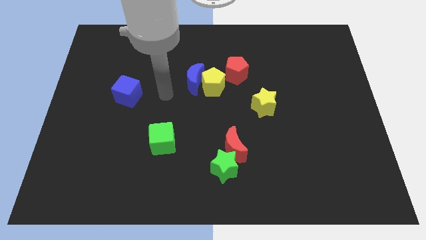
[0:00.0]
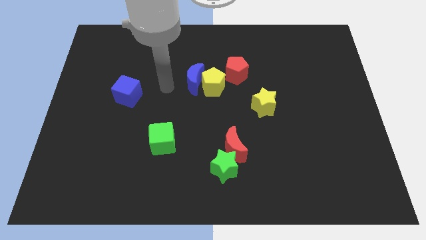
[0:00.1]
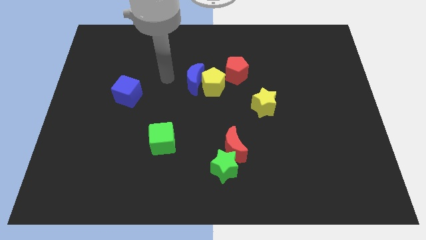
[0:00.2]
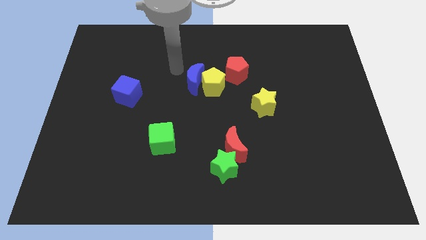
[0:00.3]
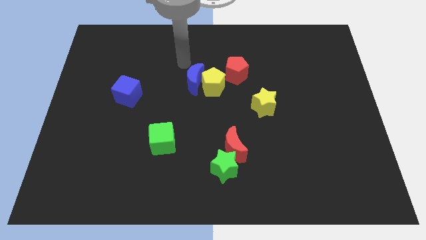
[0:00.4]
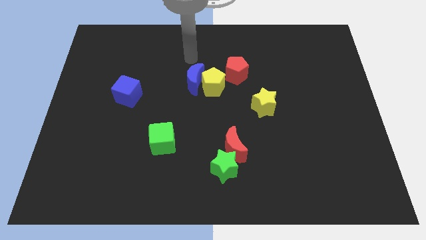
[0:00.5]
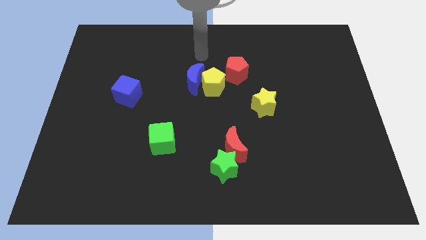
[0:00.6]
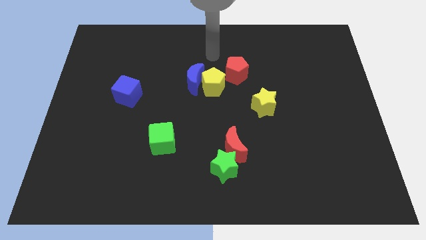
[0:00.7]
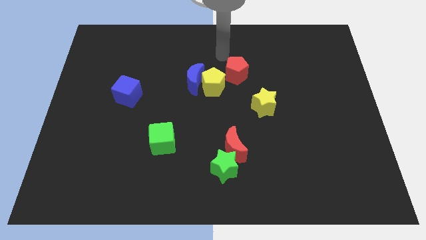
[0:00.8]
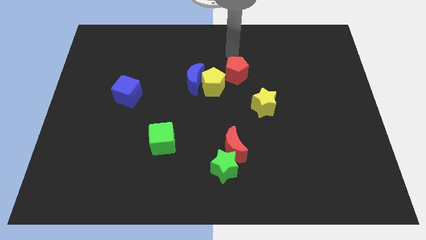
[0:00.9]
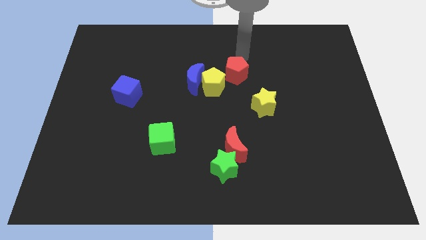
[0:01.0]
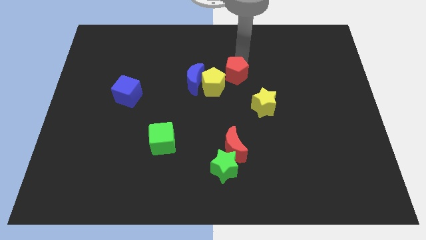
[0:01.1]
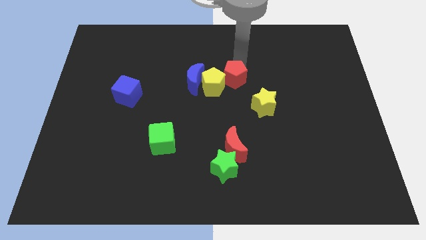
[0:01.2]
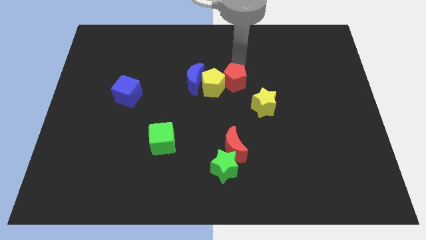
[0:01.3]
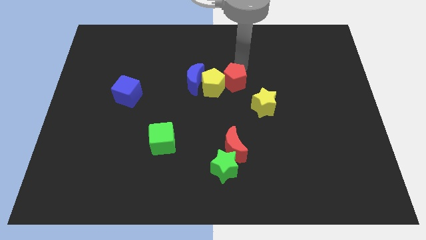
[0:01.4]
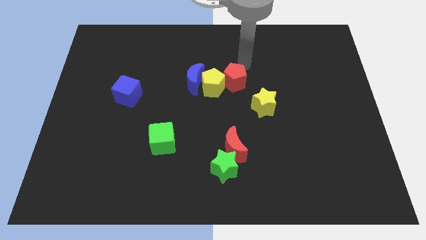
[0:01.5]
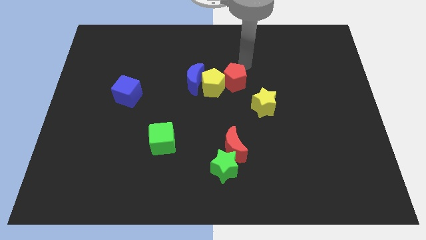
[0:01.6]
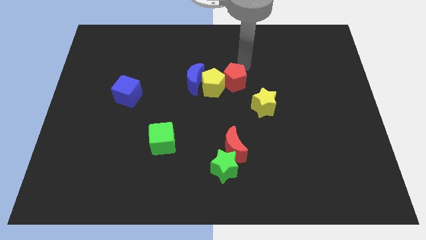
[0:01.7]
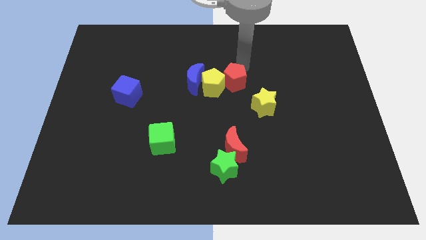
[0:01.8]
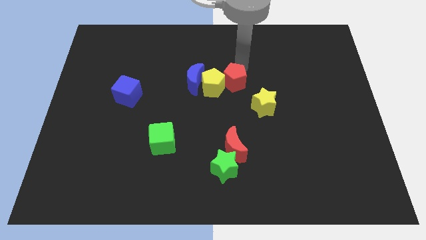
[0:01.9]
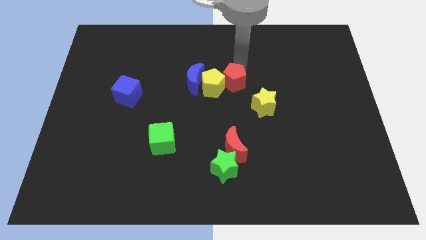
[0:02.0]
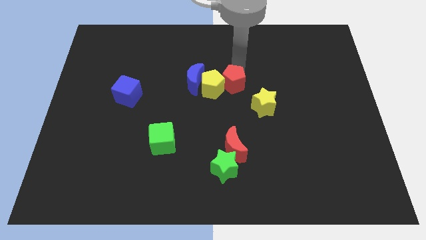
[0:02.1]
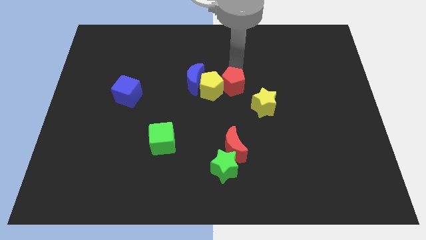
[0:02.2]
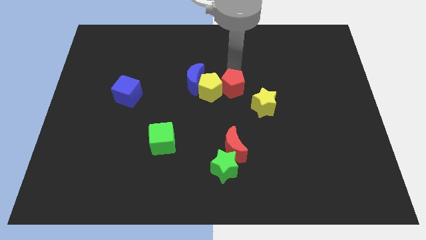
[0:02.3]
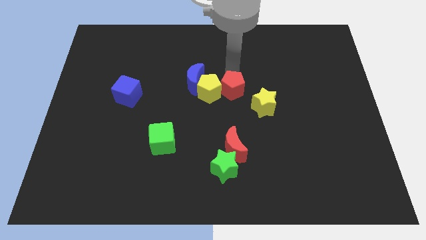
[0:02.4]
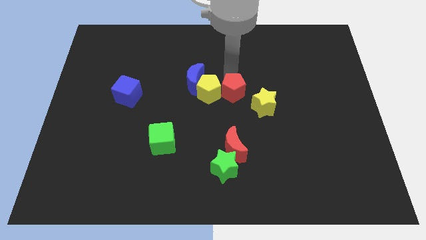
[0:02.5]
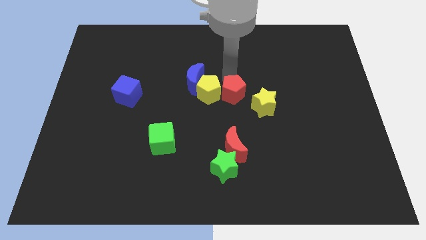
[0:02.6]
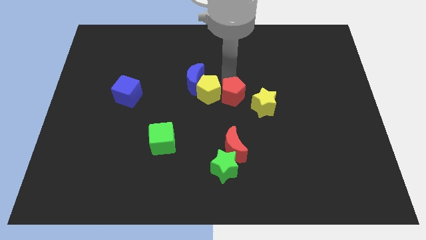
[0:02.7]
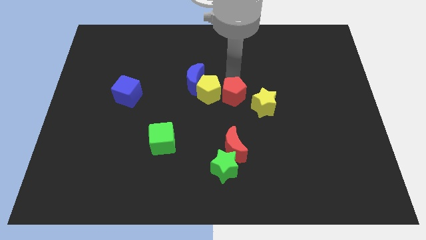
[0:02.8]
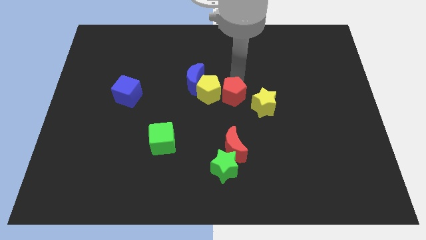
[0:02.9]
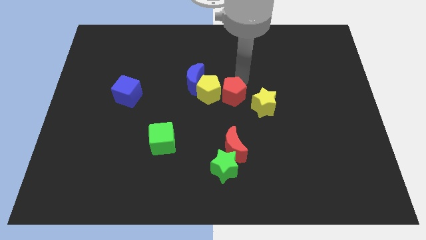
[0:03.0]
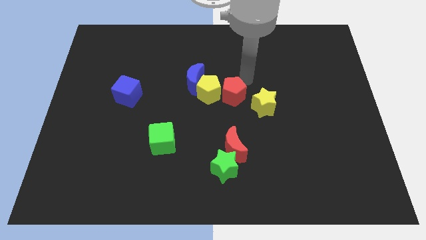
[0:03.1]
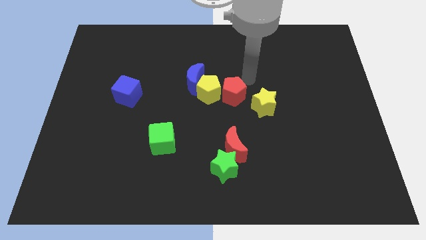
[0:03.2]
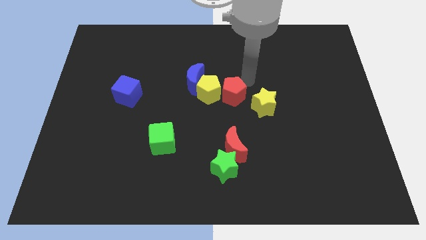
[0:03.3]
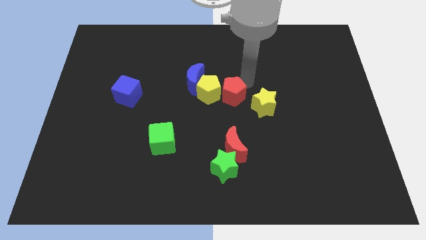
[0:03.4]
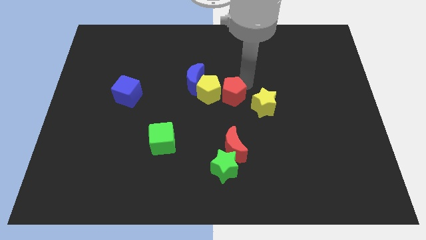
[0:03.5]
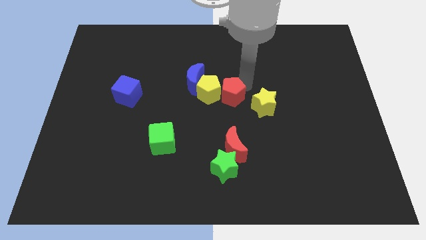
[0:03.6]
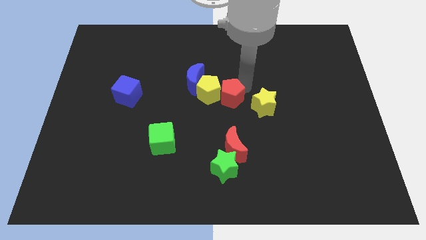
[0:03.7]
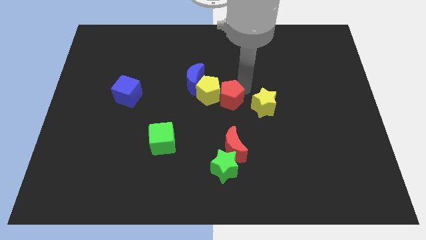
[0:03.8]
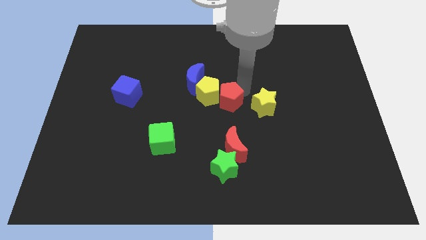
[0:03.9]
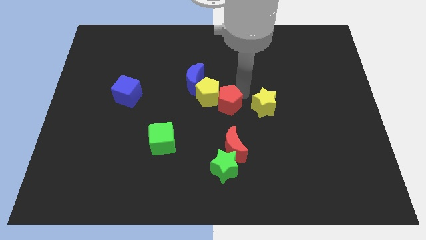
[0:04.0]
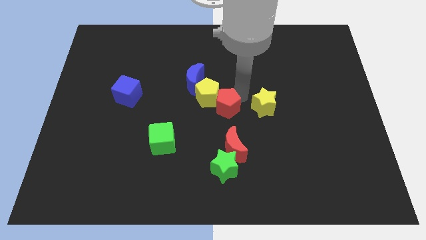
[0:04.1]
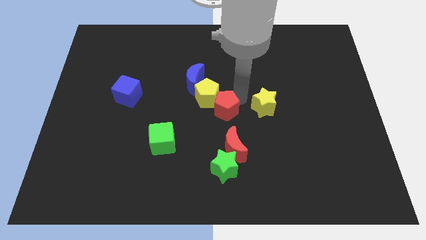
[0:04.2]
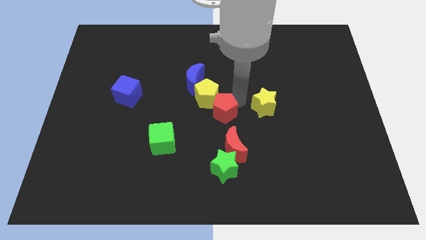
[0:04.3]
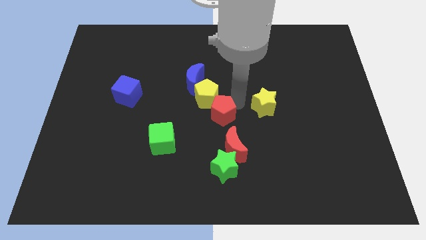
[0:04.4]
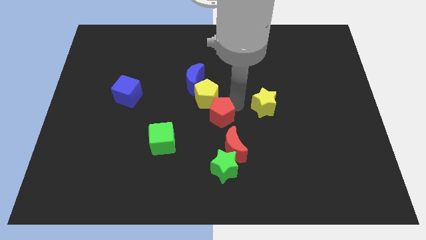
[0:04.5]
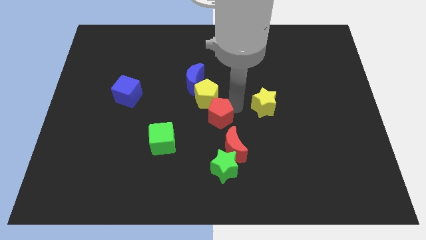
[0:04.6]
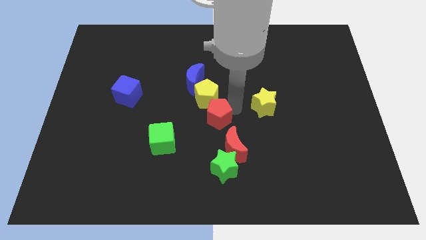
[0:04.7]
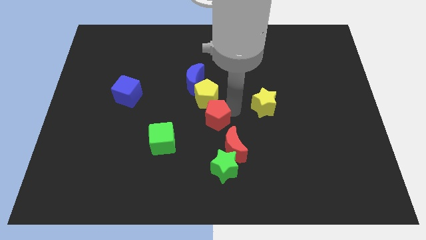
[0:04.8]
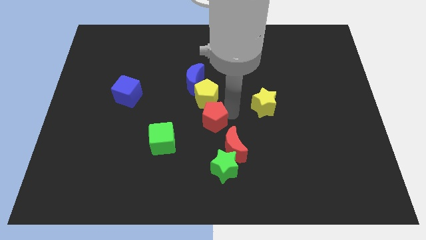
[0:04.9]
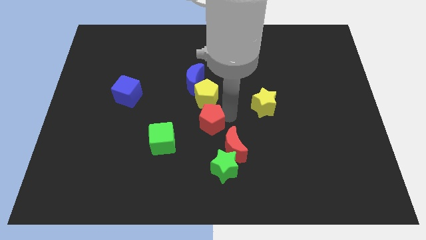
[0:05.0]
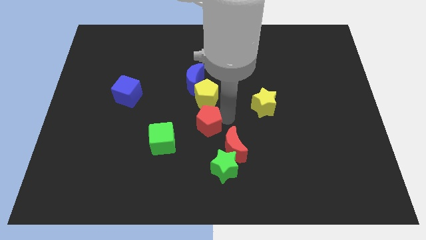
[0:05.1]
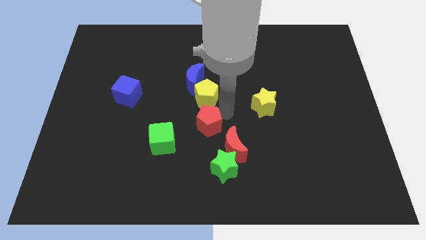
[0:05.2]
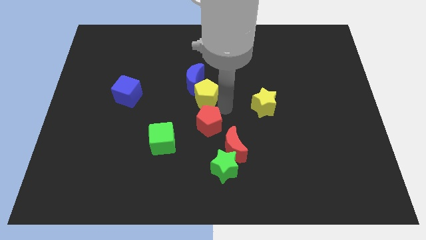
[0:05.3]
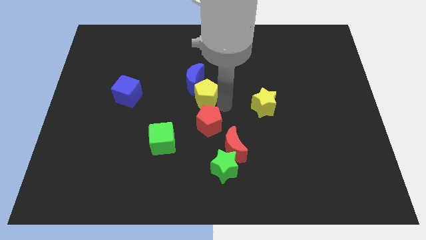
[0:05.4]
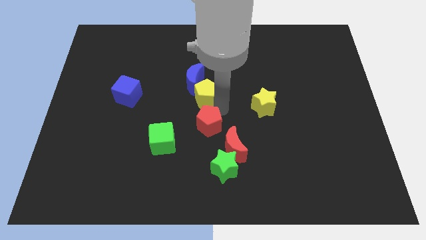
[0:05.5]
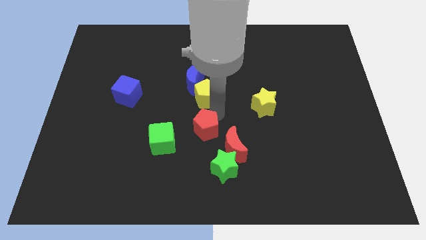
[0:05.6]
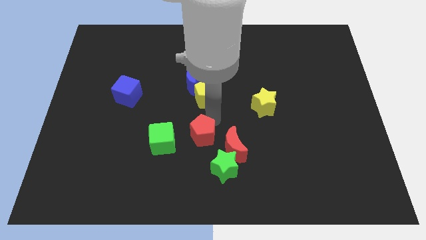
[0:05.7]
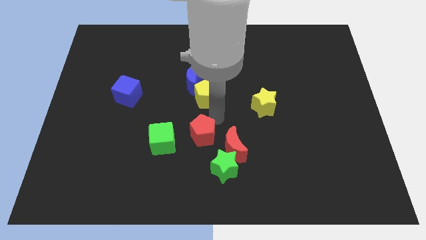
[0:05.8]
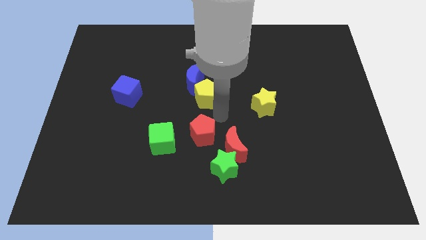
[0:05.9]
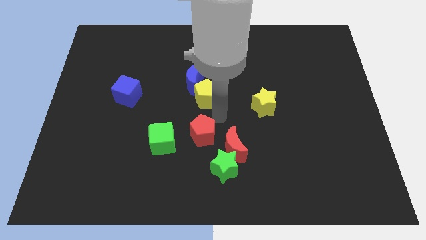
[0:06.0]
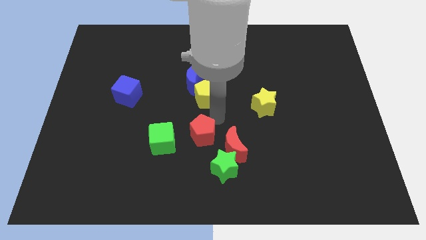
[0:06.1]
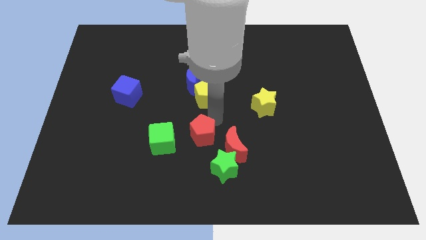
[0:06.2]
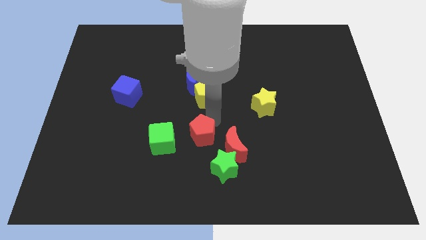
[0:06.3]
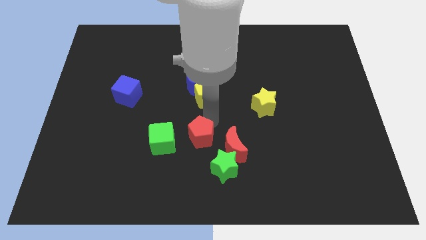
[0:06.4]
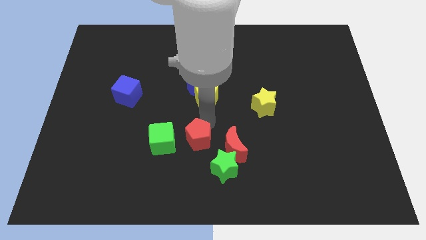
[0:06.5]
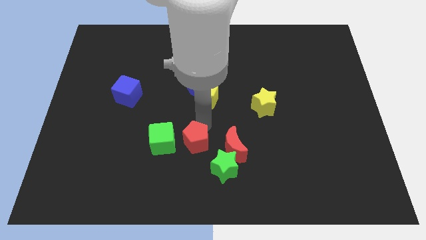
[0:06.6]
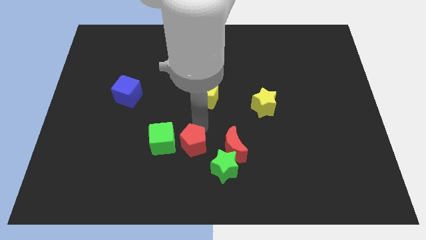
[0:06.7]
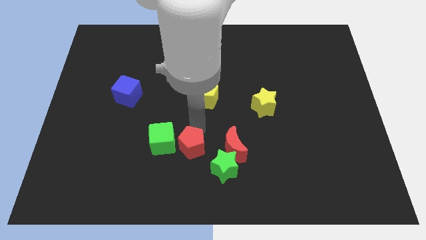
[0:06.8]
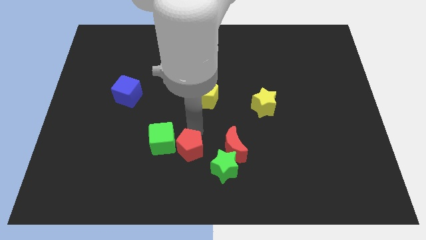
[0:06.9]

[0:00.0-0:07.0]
put the red pentagon to the left of the green star
